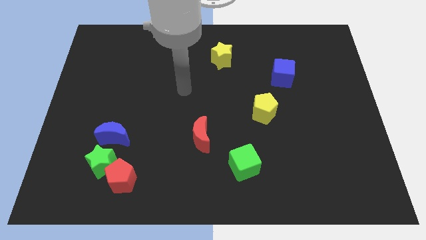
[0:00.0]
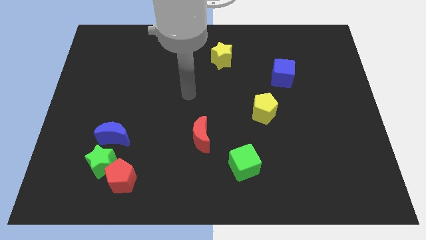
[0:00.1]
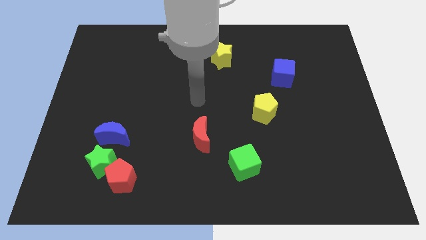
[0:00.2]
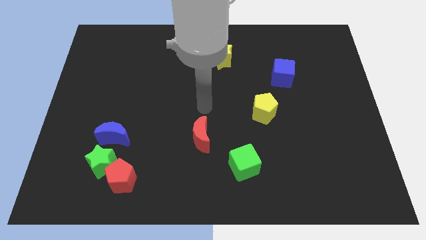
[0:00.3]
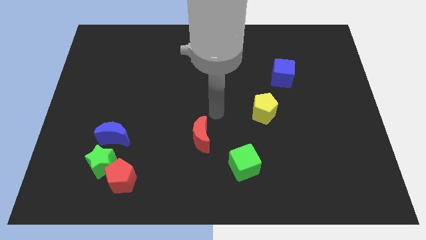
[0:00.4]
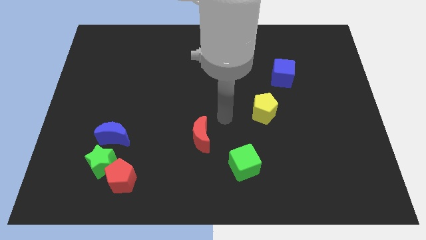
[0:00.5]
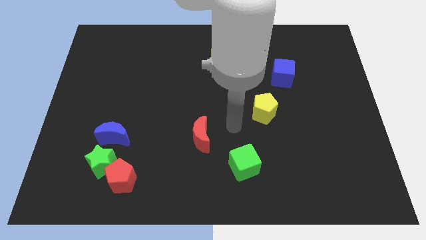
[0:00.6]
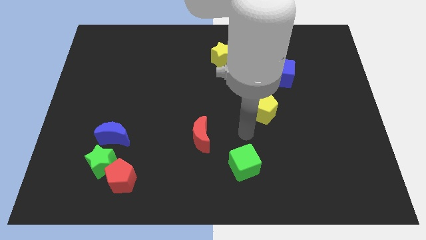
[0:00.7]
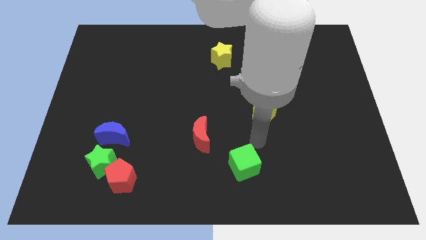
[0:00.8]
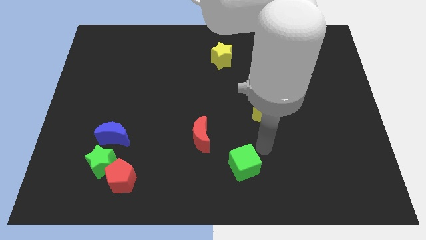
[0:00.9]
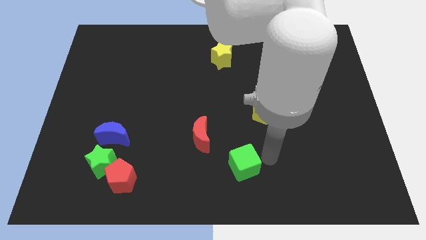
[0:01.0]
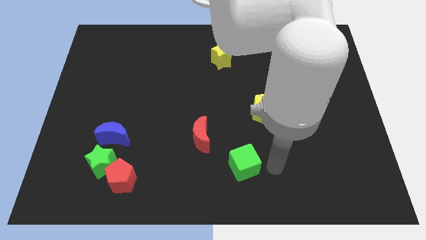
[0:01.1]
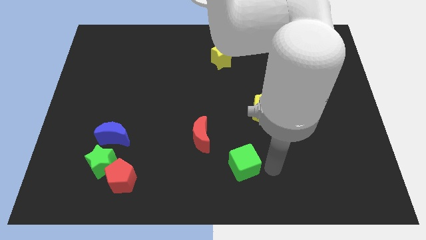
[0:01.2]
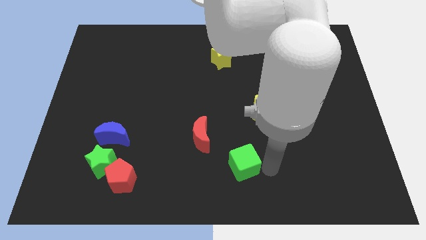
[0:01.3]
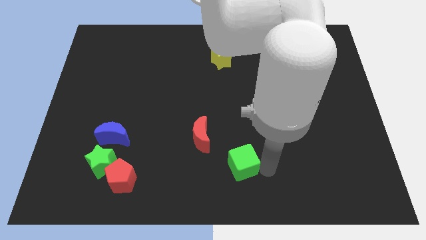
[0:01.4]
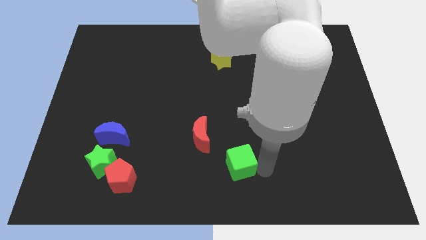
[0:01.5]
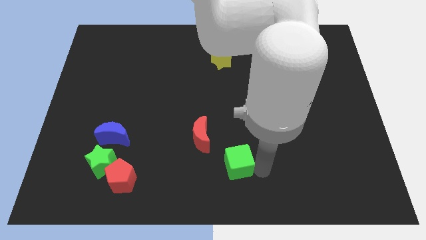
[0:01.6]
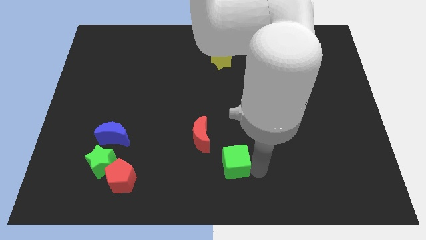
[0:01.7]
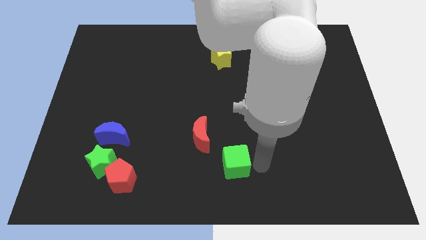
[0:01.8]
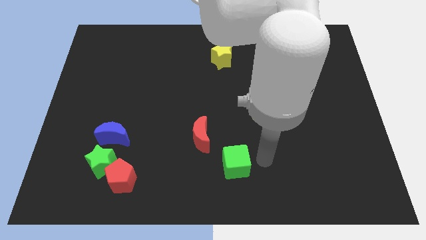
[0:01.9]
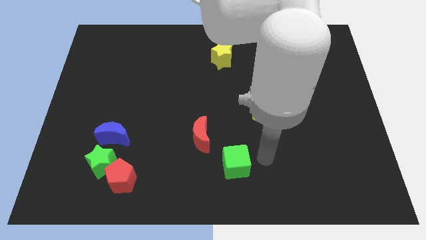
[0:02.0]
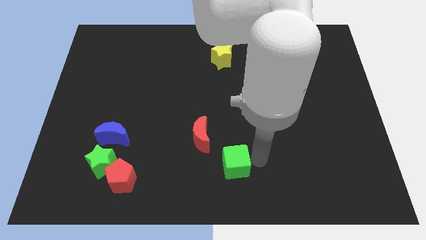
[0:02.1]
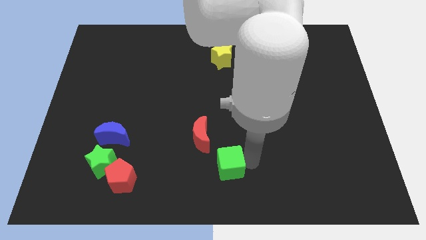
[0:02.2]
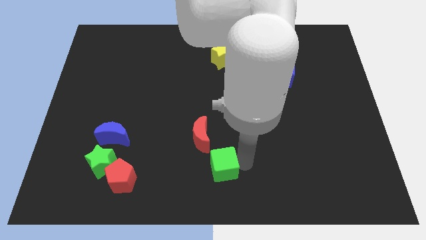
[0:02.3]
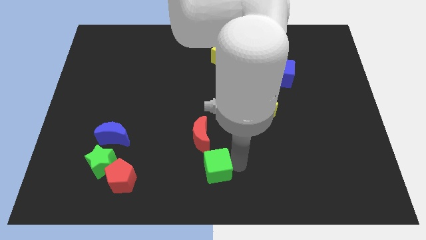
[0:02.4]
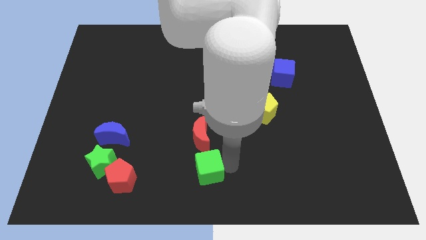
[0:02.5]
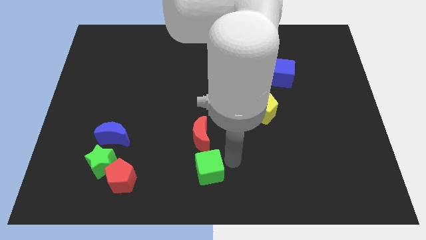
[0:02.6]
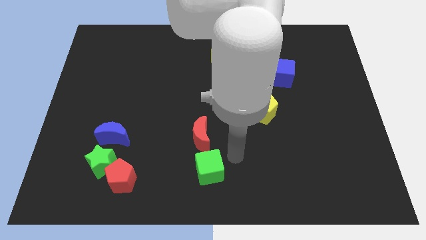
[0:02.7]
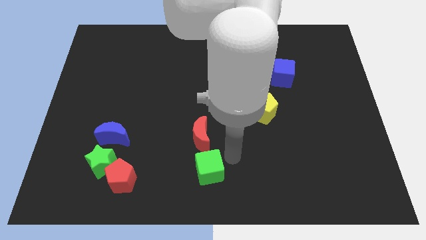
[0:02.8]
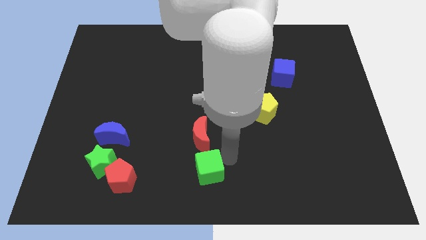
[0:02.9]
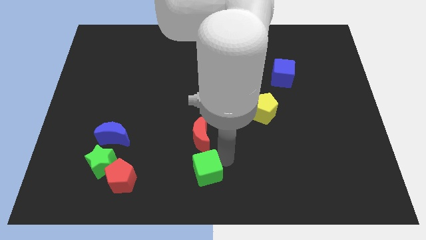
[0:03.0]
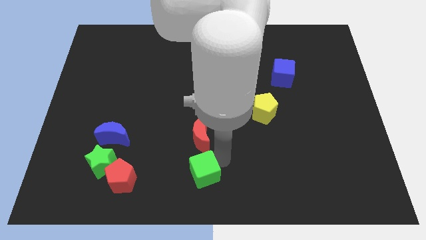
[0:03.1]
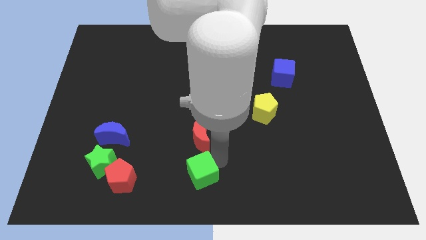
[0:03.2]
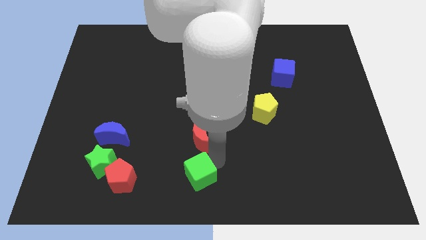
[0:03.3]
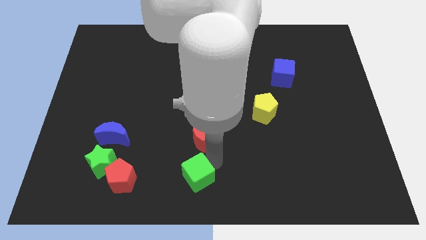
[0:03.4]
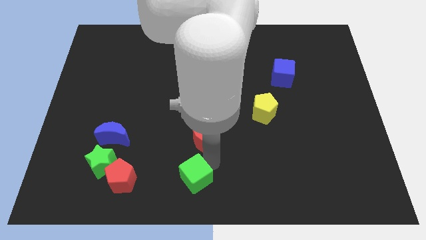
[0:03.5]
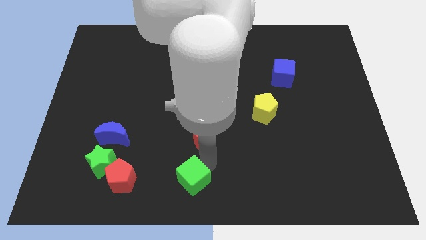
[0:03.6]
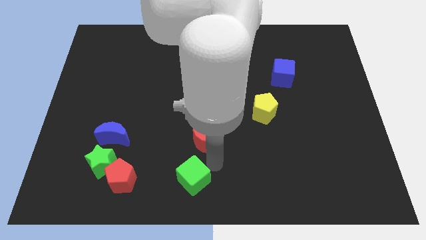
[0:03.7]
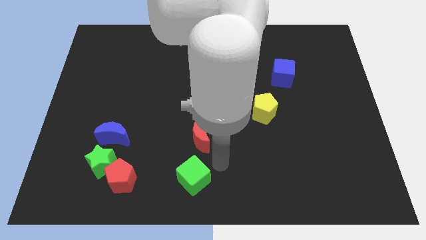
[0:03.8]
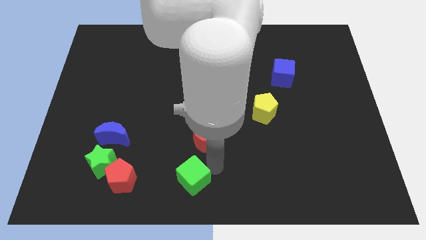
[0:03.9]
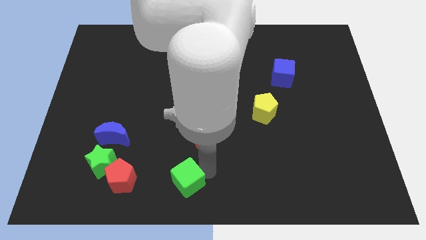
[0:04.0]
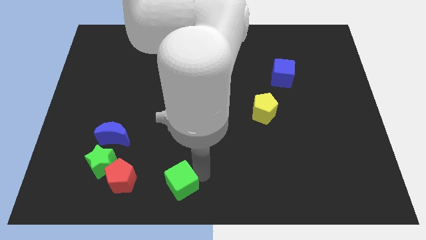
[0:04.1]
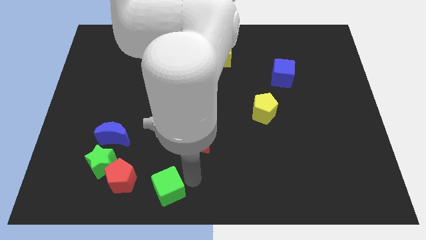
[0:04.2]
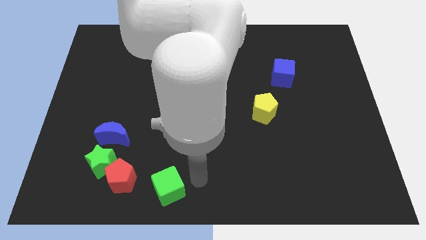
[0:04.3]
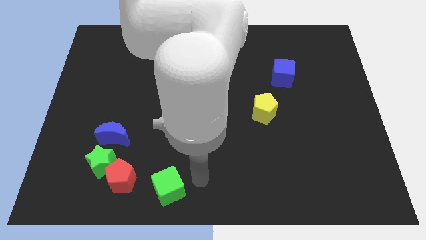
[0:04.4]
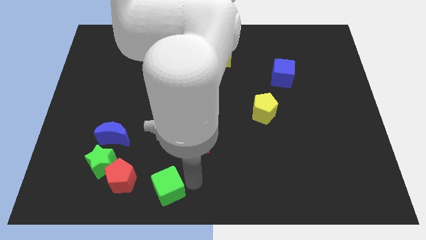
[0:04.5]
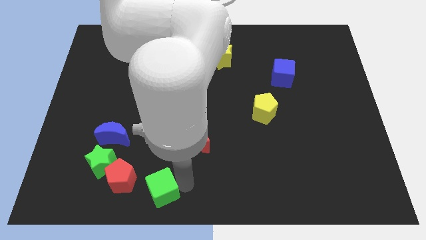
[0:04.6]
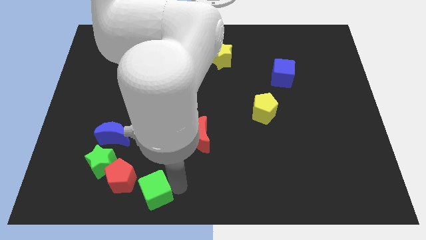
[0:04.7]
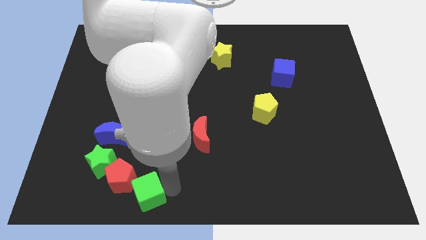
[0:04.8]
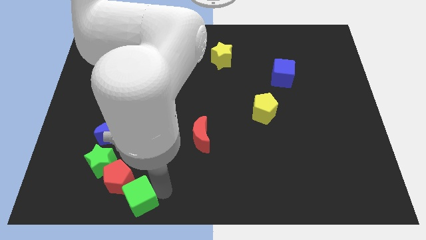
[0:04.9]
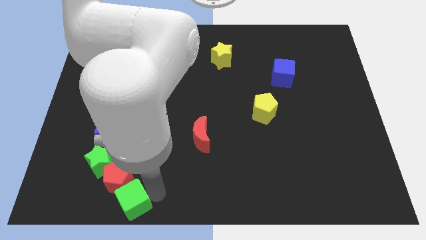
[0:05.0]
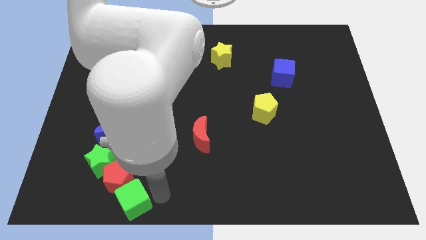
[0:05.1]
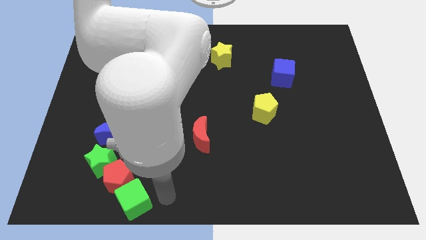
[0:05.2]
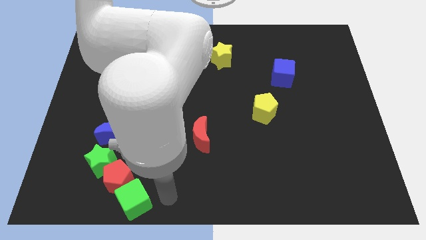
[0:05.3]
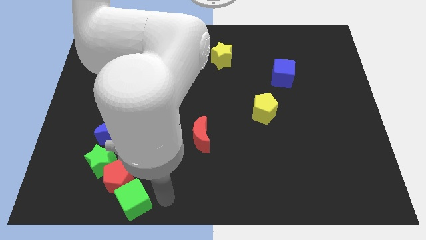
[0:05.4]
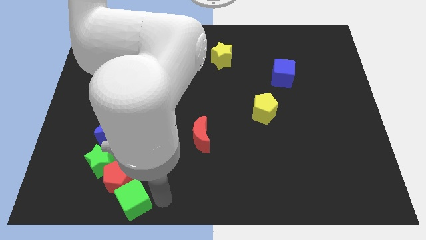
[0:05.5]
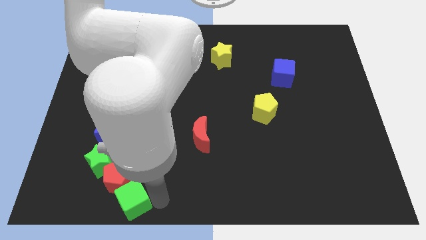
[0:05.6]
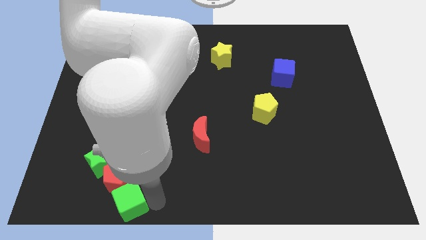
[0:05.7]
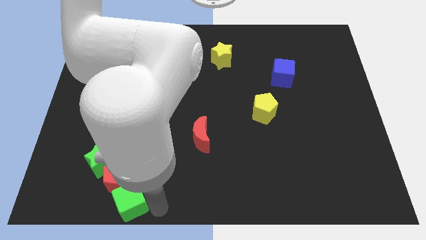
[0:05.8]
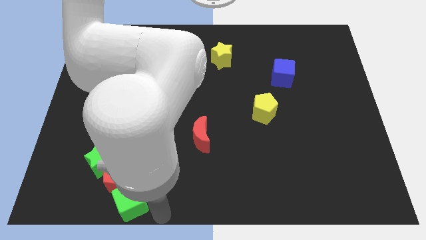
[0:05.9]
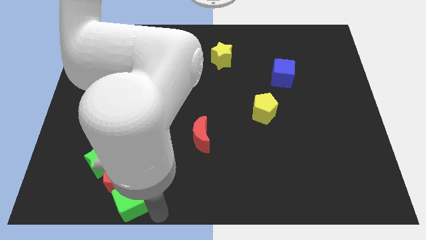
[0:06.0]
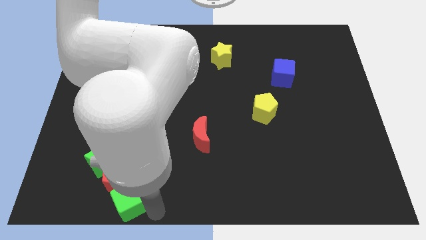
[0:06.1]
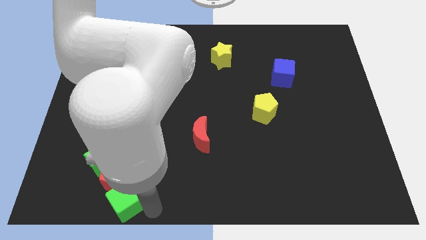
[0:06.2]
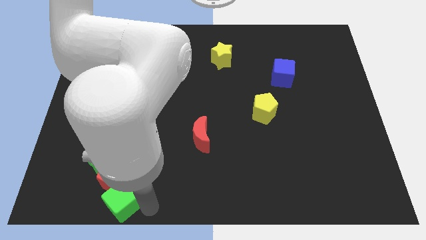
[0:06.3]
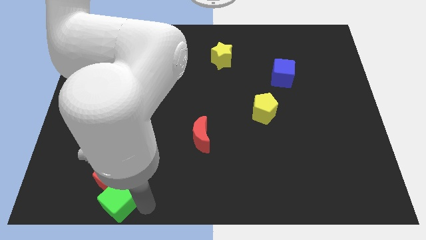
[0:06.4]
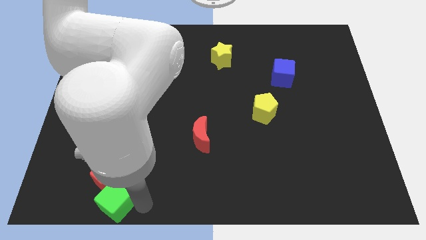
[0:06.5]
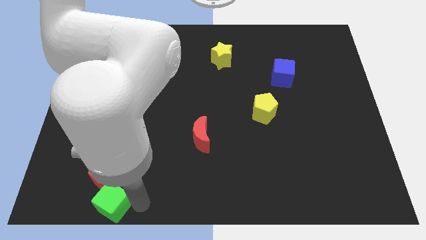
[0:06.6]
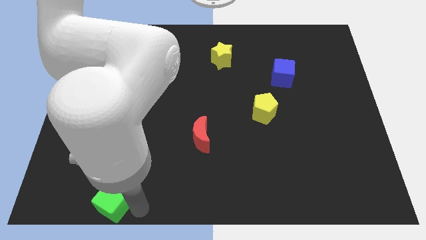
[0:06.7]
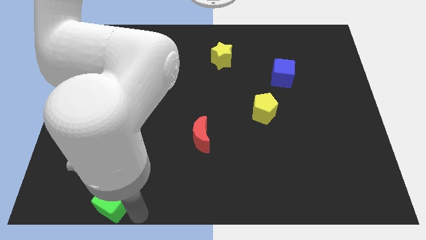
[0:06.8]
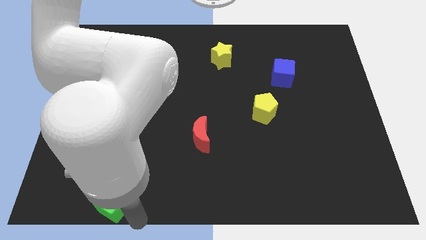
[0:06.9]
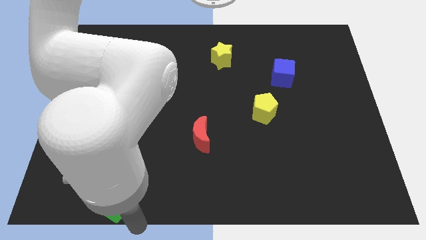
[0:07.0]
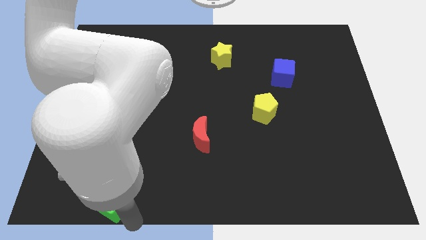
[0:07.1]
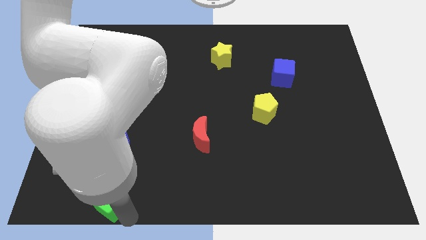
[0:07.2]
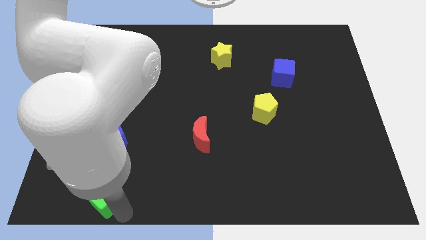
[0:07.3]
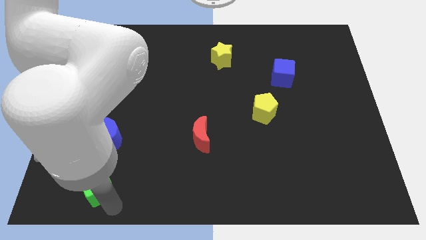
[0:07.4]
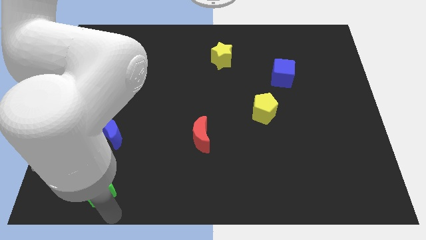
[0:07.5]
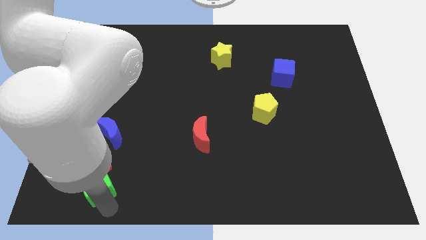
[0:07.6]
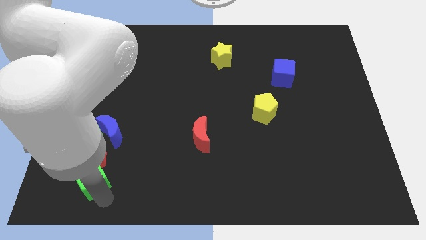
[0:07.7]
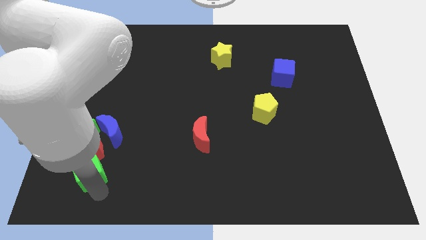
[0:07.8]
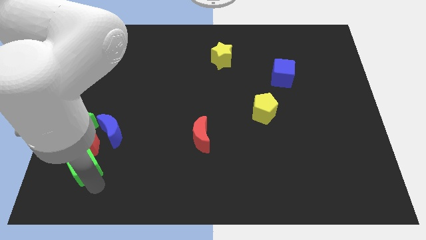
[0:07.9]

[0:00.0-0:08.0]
move the green cube to the bottom left side of the blue moon
